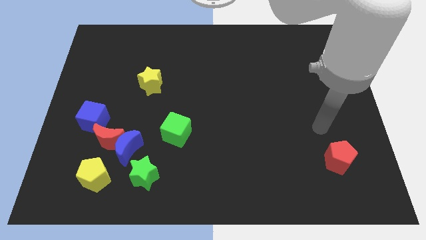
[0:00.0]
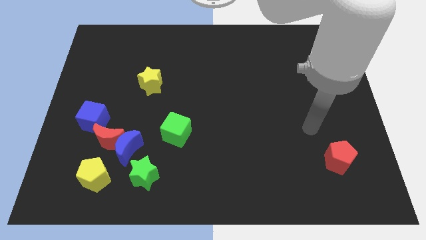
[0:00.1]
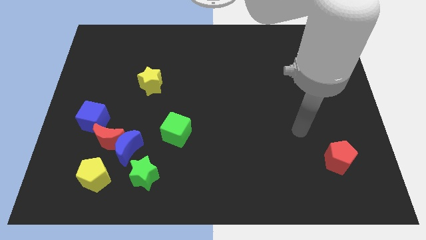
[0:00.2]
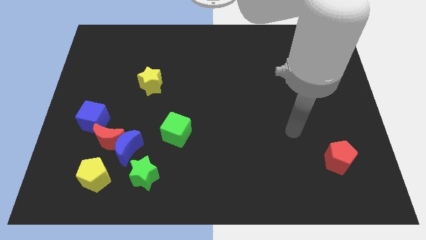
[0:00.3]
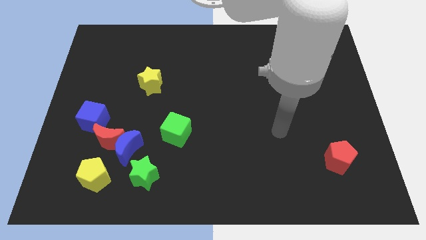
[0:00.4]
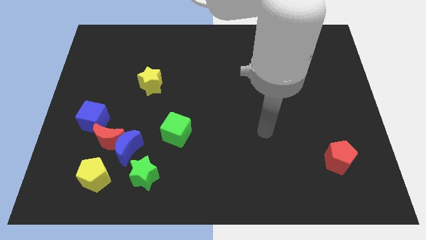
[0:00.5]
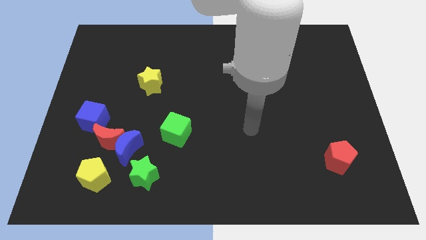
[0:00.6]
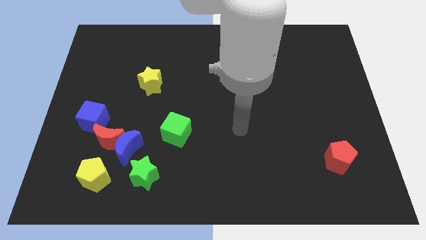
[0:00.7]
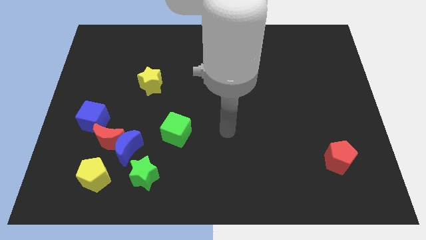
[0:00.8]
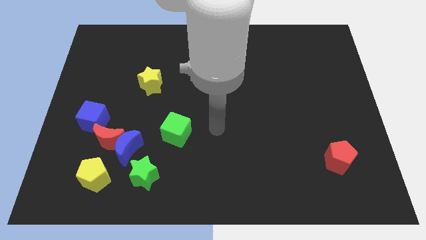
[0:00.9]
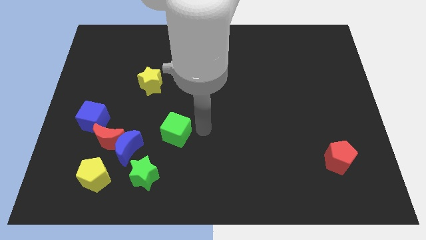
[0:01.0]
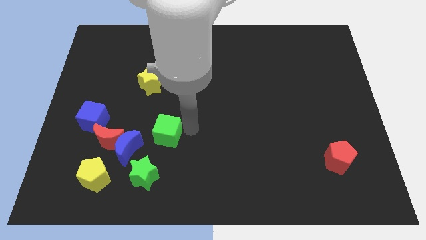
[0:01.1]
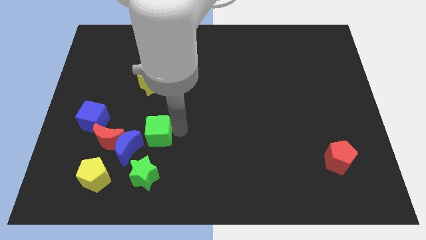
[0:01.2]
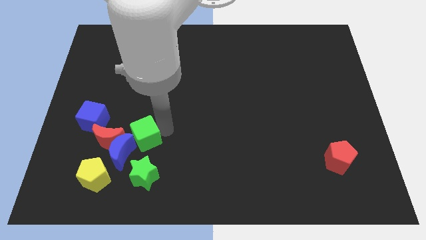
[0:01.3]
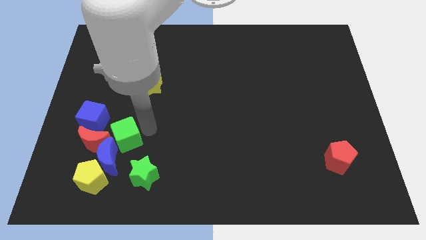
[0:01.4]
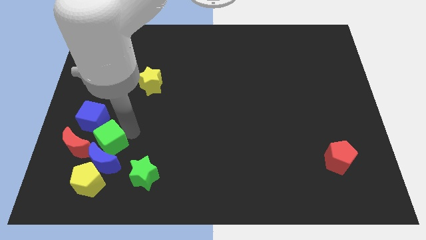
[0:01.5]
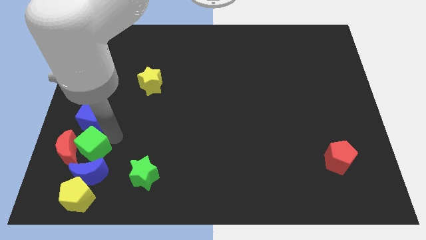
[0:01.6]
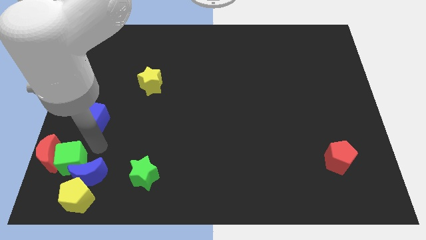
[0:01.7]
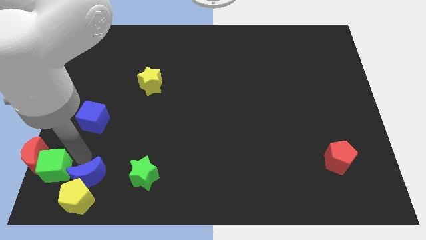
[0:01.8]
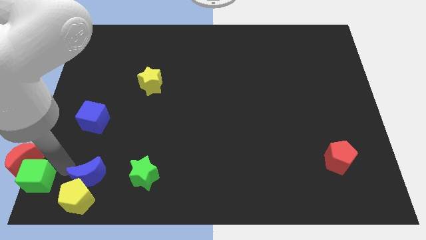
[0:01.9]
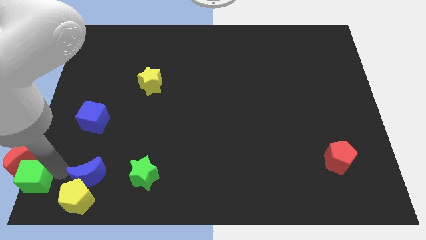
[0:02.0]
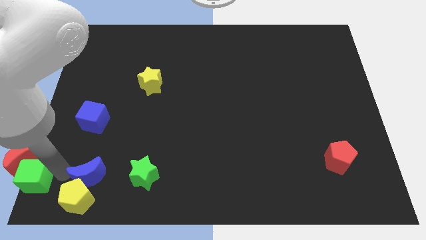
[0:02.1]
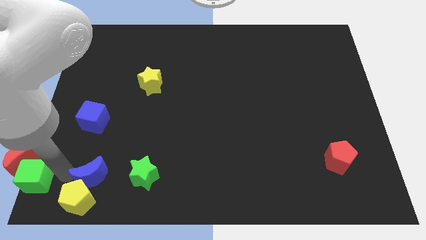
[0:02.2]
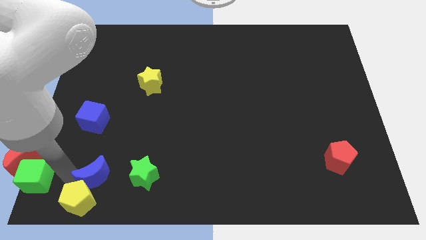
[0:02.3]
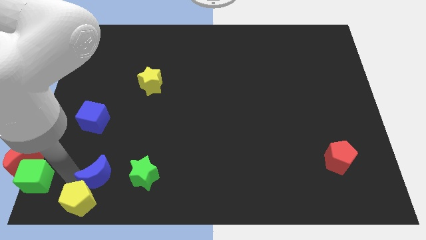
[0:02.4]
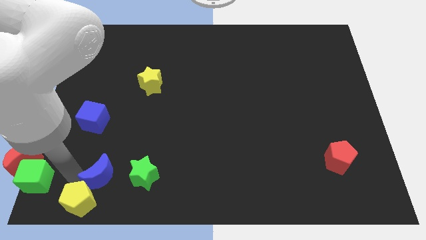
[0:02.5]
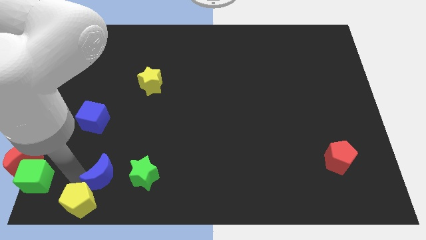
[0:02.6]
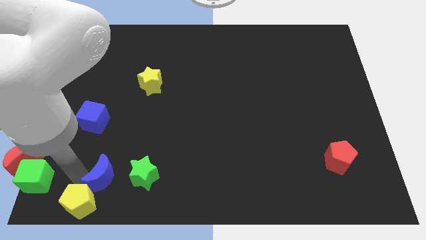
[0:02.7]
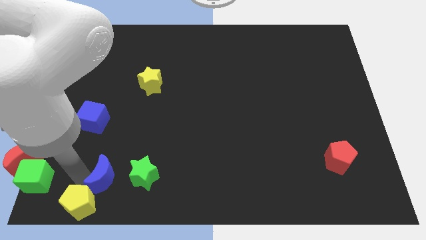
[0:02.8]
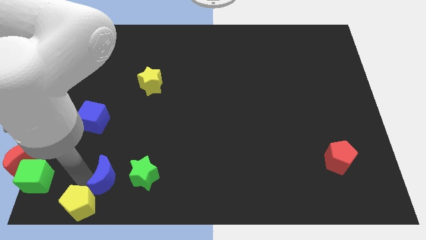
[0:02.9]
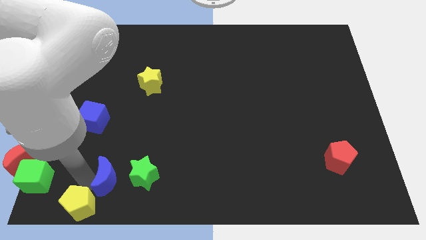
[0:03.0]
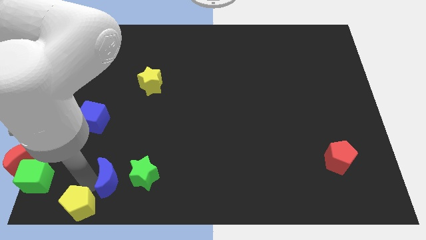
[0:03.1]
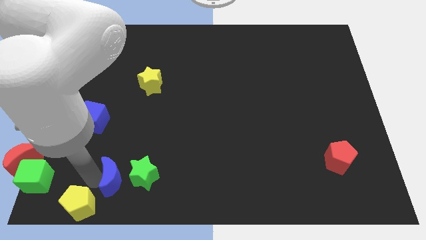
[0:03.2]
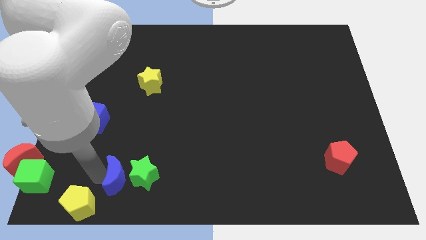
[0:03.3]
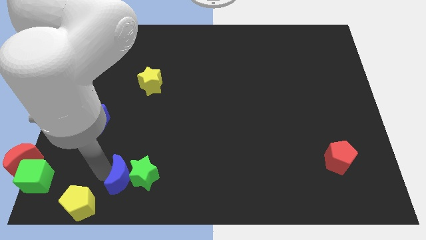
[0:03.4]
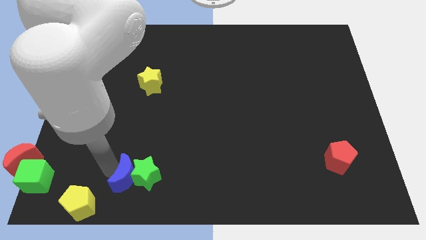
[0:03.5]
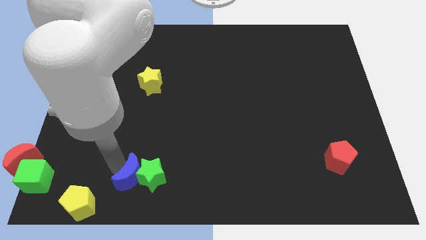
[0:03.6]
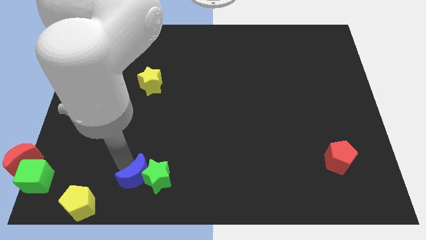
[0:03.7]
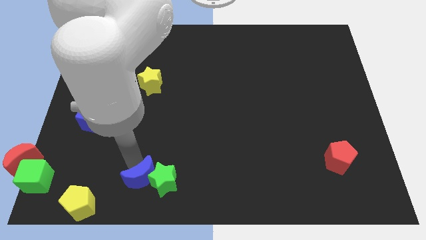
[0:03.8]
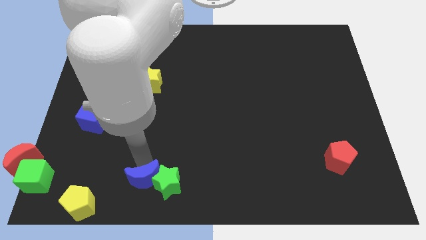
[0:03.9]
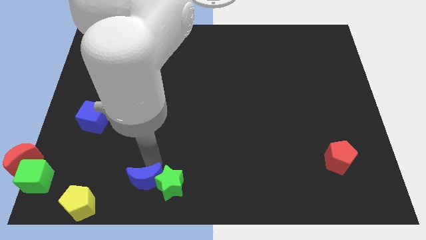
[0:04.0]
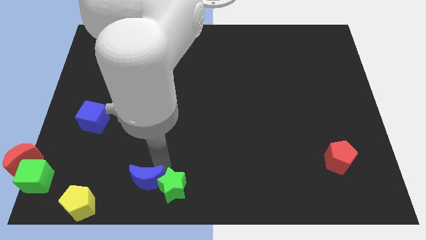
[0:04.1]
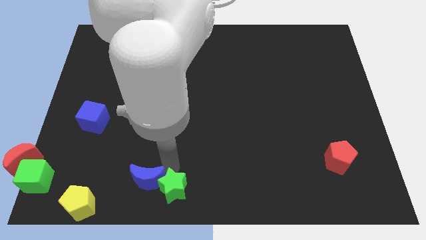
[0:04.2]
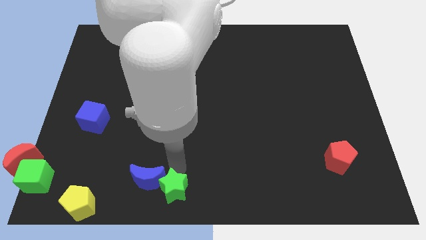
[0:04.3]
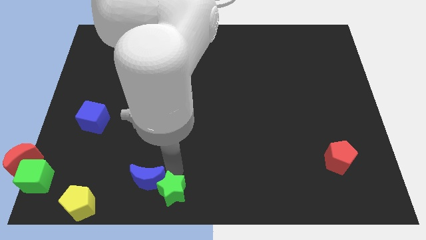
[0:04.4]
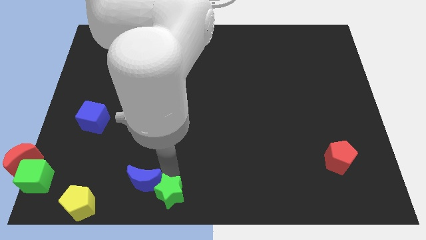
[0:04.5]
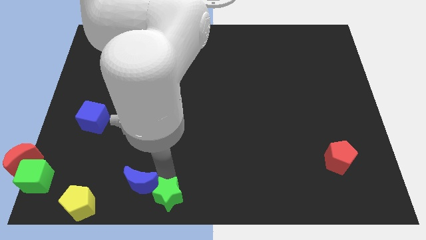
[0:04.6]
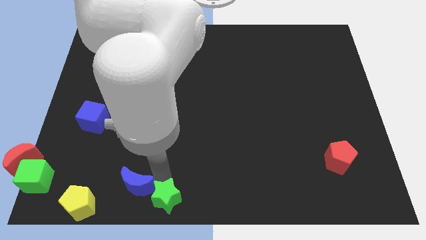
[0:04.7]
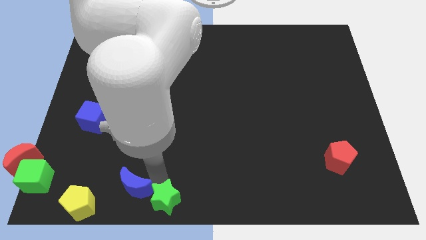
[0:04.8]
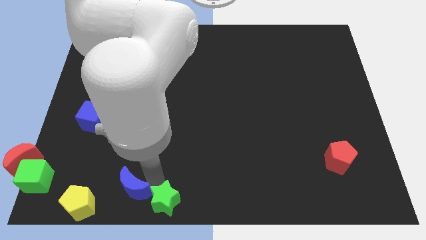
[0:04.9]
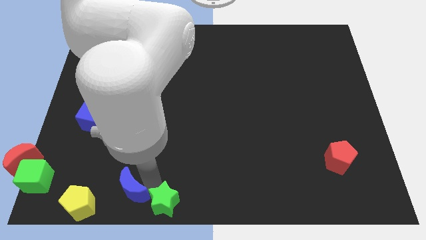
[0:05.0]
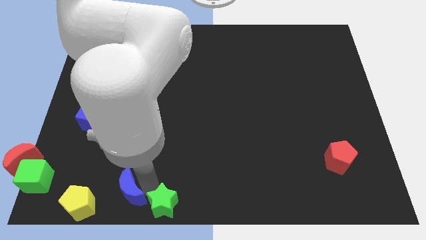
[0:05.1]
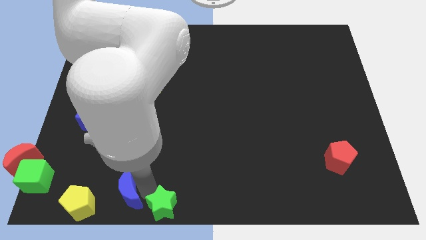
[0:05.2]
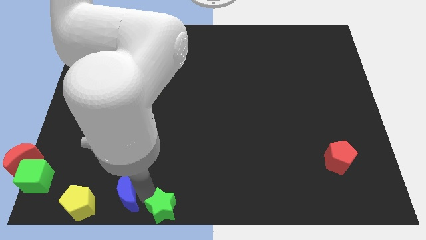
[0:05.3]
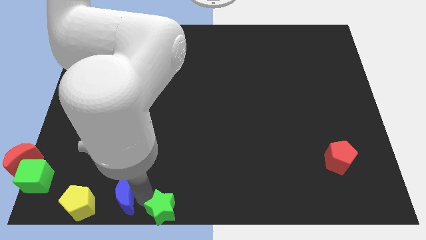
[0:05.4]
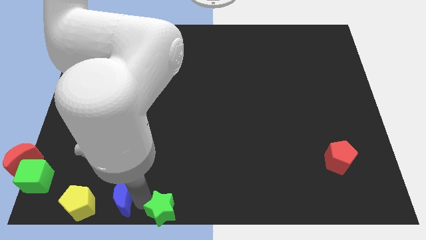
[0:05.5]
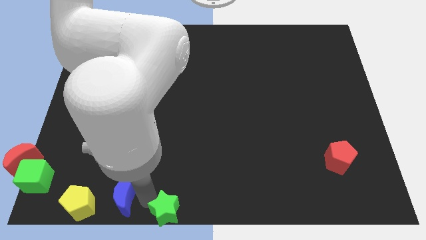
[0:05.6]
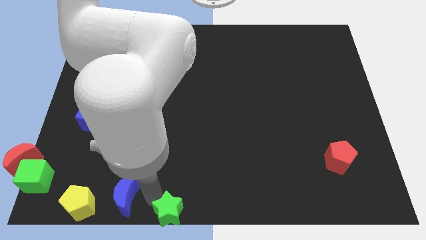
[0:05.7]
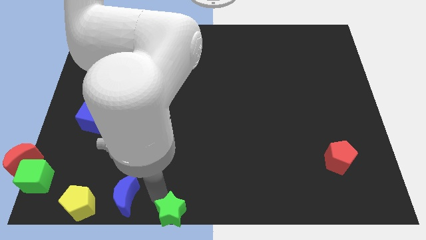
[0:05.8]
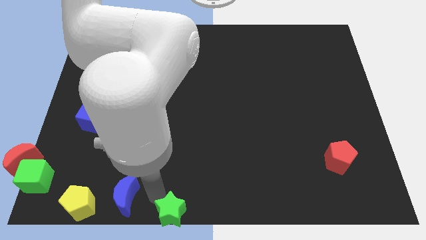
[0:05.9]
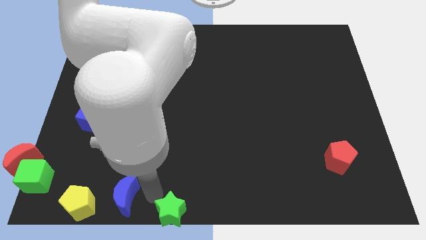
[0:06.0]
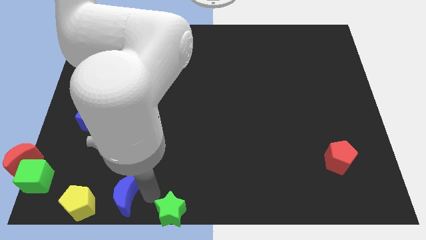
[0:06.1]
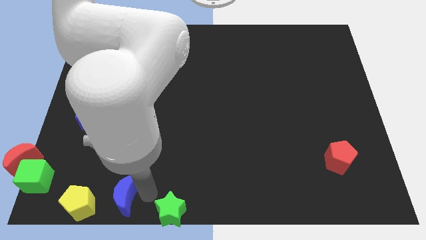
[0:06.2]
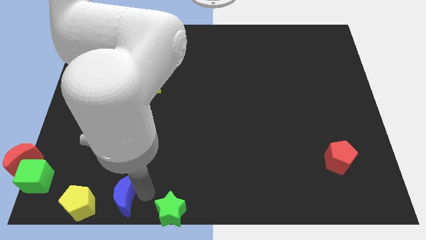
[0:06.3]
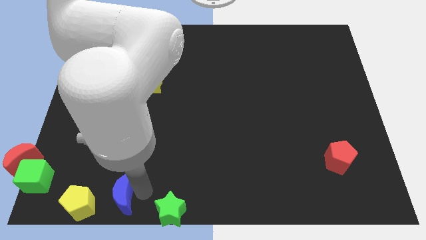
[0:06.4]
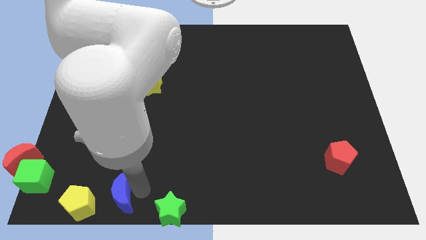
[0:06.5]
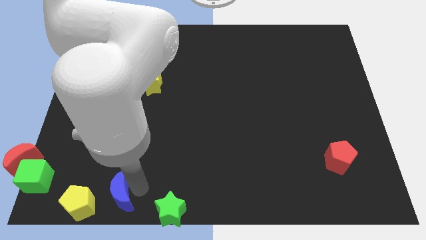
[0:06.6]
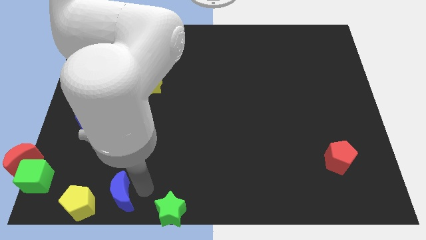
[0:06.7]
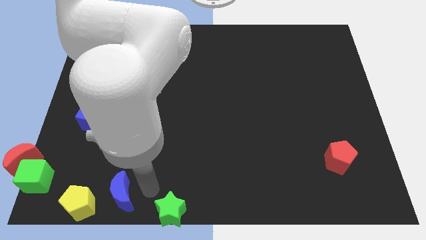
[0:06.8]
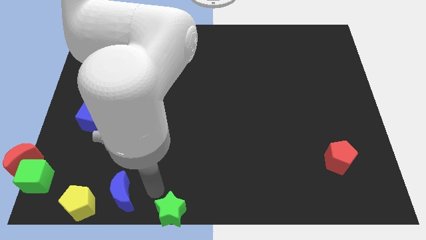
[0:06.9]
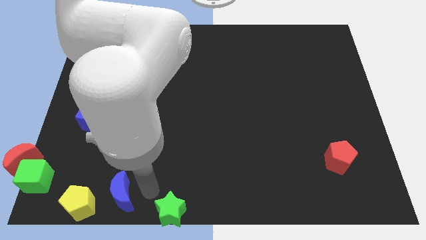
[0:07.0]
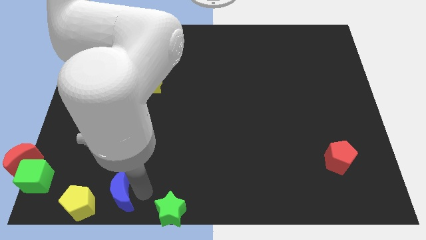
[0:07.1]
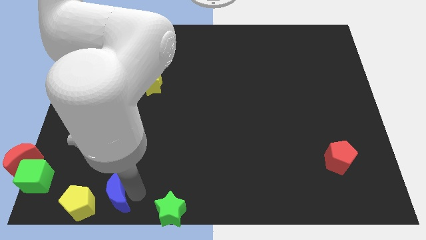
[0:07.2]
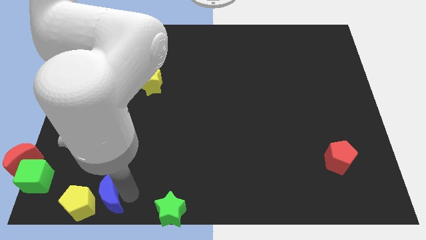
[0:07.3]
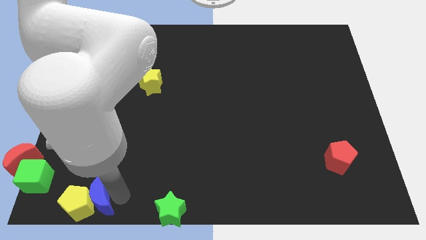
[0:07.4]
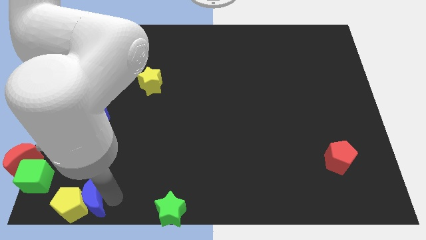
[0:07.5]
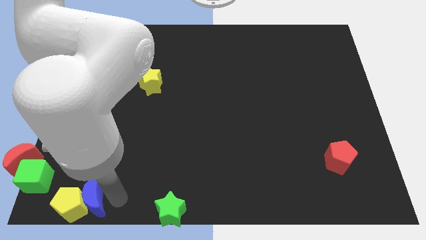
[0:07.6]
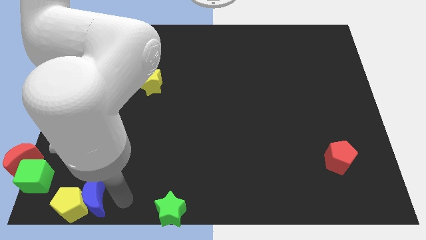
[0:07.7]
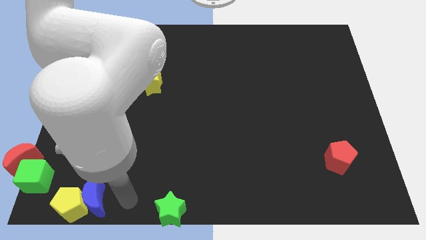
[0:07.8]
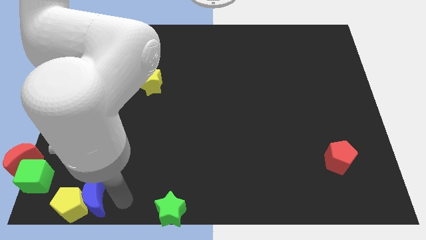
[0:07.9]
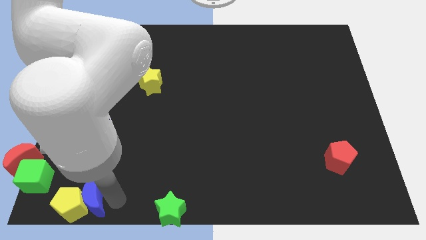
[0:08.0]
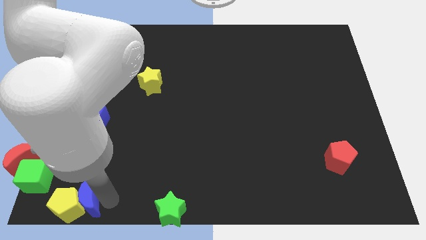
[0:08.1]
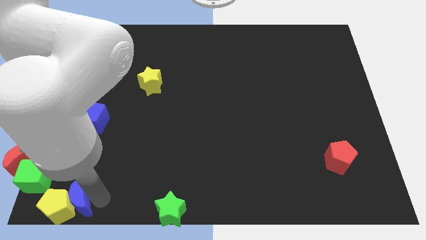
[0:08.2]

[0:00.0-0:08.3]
slide the blue moon to the bottom left
